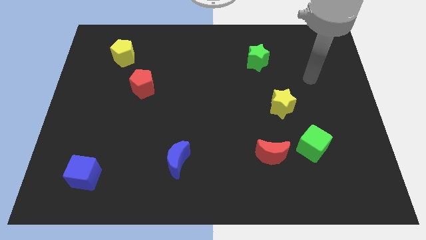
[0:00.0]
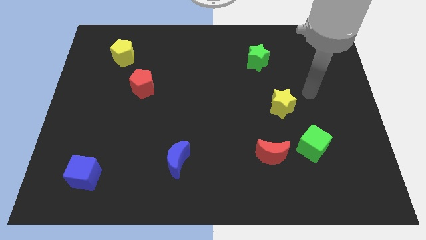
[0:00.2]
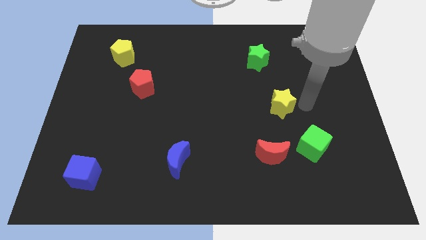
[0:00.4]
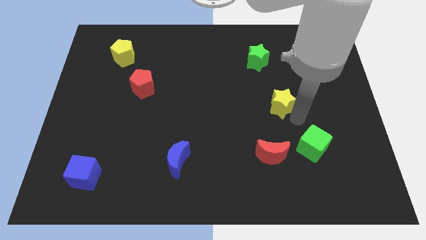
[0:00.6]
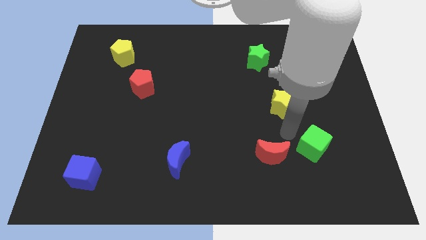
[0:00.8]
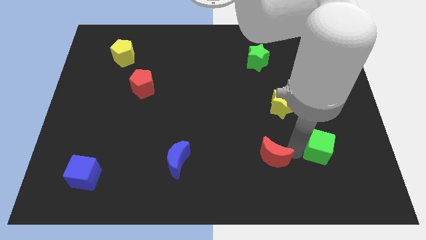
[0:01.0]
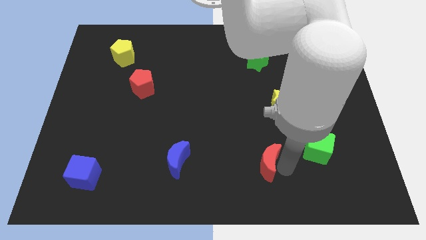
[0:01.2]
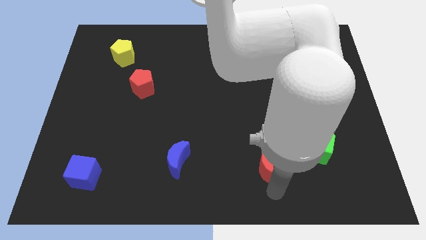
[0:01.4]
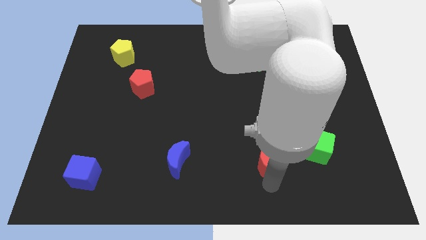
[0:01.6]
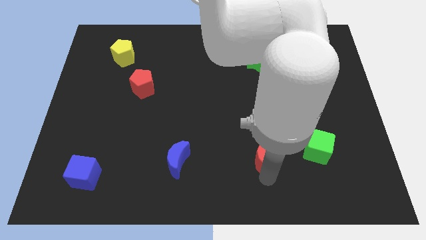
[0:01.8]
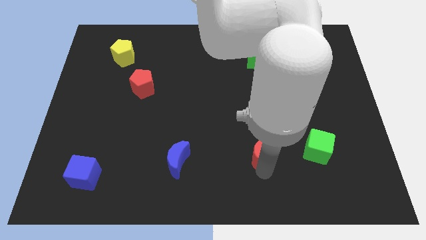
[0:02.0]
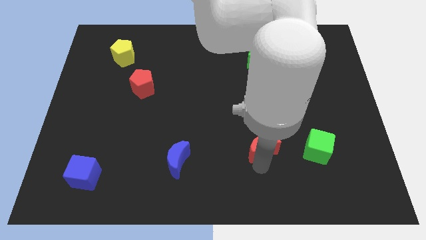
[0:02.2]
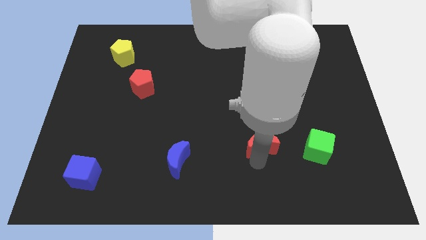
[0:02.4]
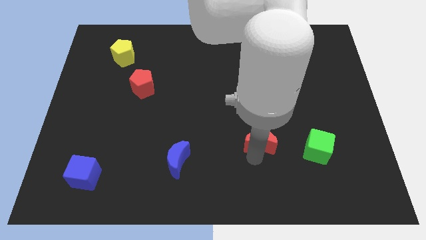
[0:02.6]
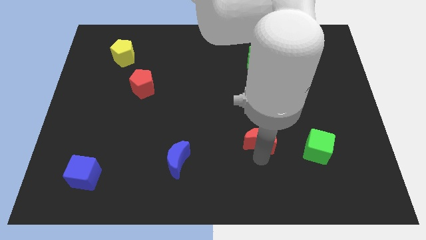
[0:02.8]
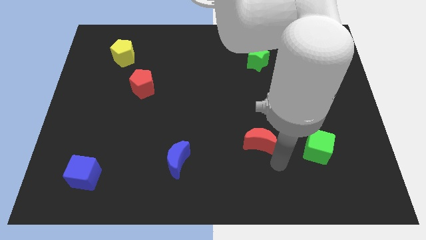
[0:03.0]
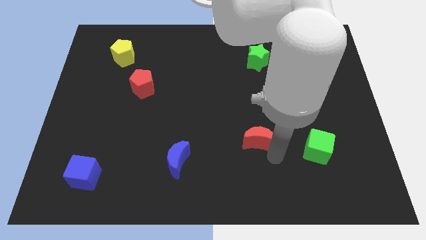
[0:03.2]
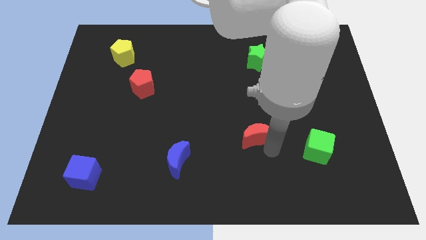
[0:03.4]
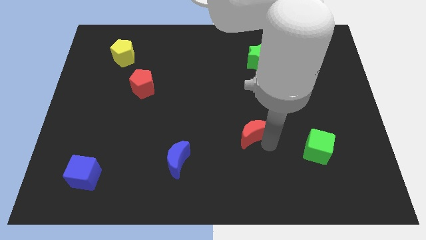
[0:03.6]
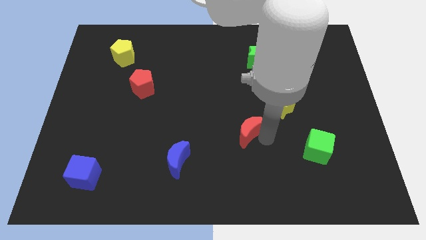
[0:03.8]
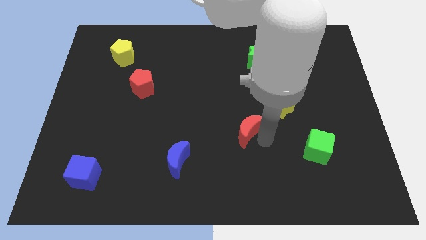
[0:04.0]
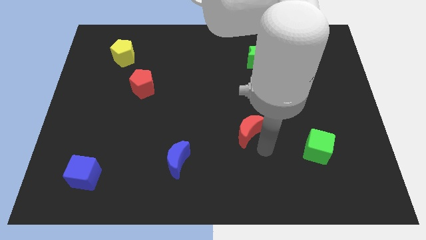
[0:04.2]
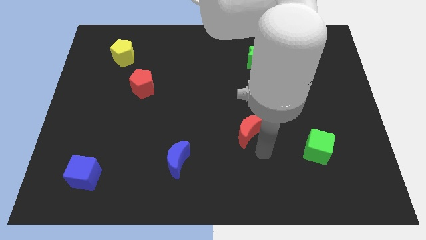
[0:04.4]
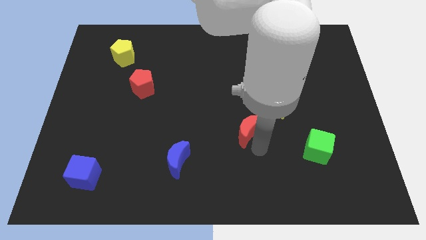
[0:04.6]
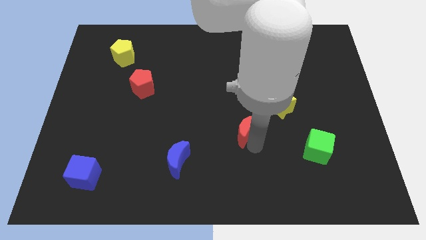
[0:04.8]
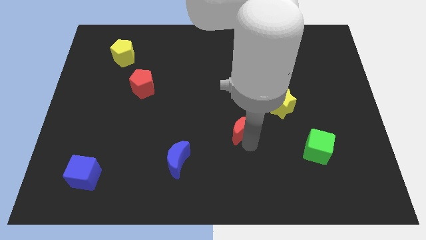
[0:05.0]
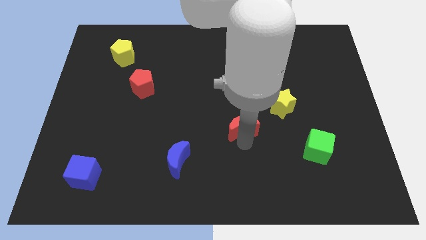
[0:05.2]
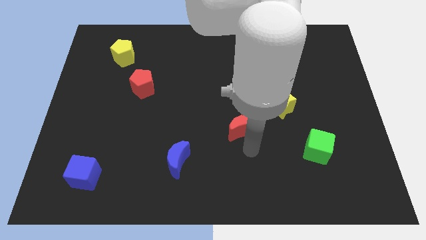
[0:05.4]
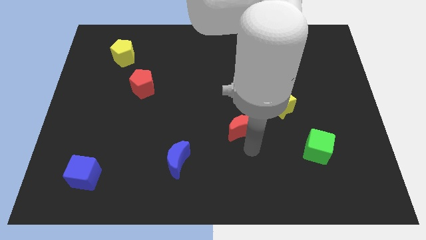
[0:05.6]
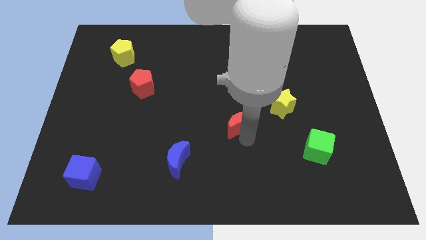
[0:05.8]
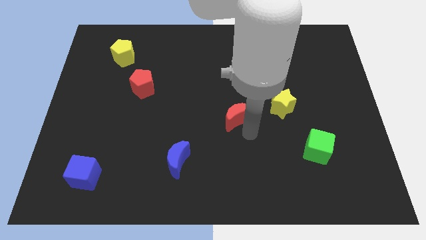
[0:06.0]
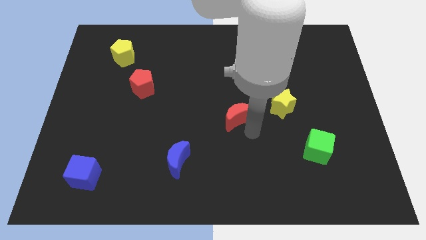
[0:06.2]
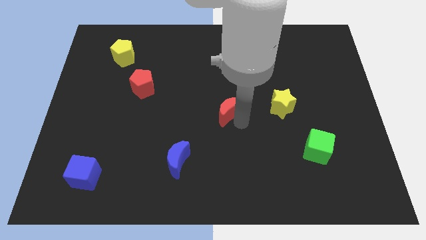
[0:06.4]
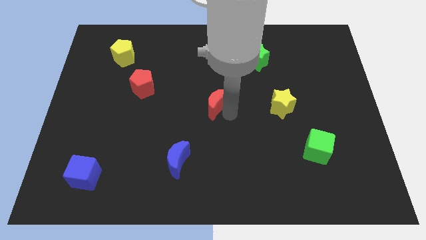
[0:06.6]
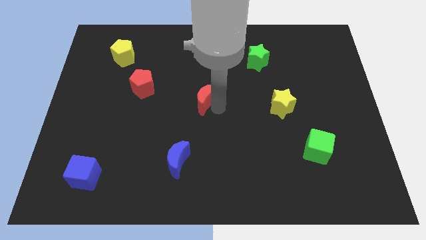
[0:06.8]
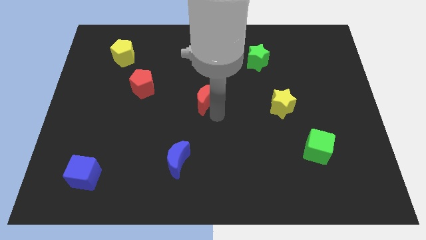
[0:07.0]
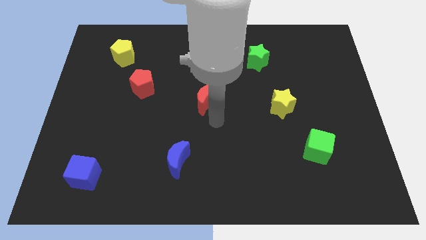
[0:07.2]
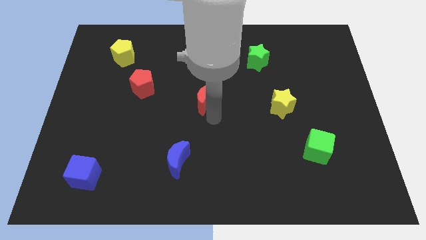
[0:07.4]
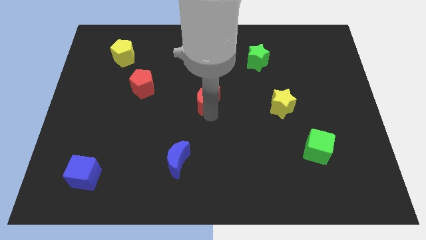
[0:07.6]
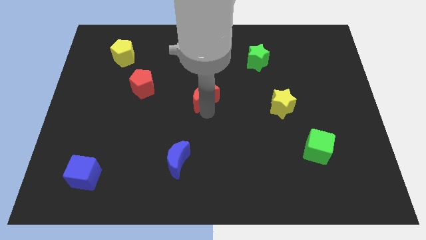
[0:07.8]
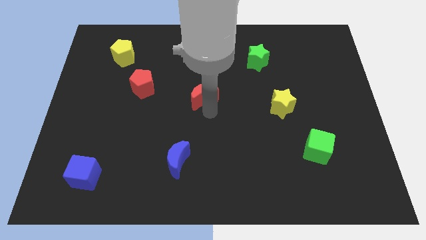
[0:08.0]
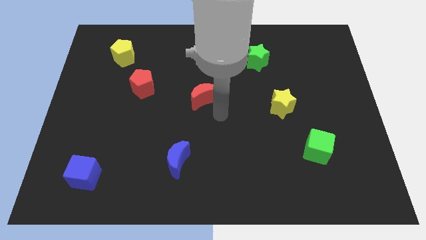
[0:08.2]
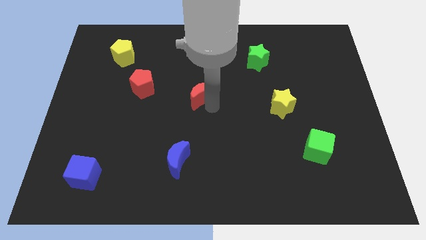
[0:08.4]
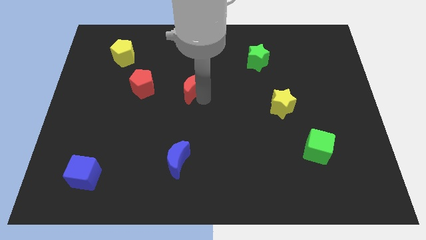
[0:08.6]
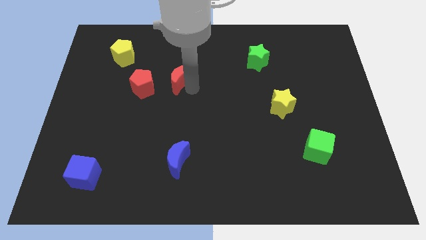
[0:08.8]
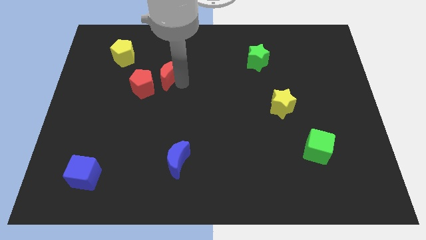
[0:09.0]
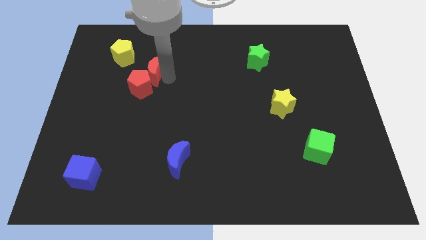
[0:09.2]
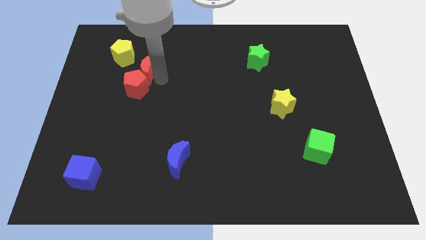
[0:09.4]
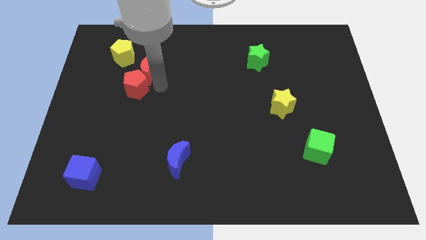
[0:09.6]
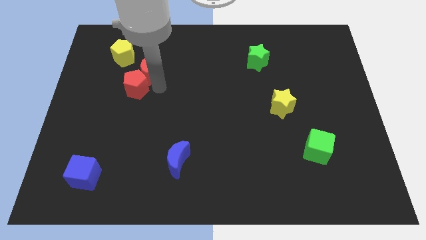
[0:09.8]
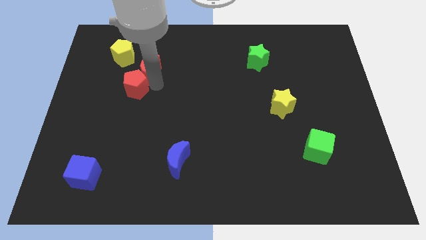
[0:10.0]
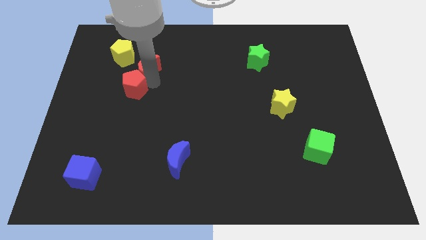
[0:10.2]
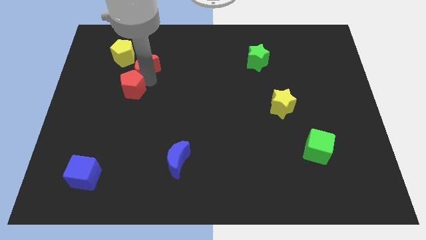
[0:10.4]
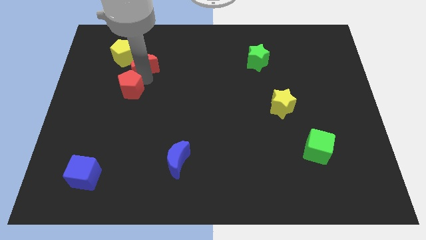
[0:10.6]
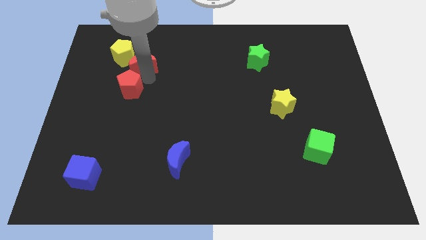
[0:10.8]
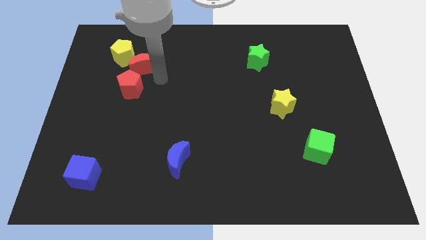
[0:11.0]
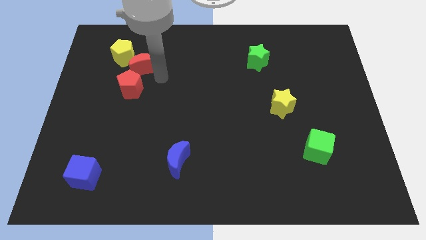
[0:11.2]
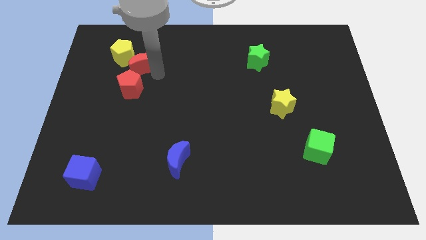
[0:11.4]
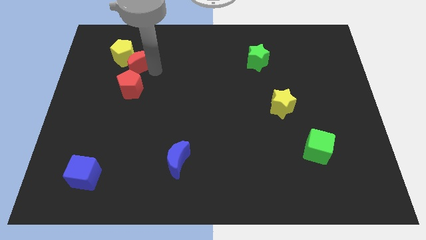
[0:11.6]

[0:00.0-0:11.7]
push the red moon close to the yellow pentagon

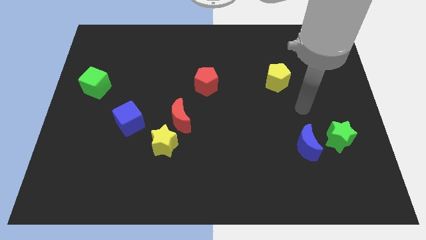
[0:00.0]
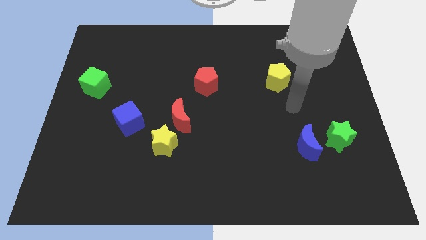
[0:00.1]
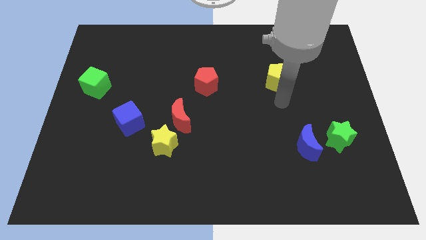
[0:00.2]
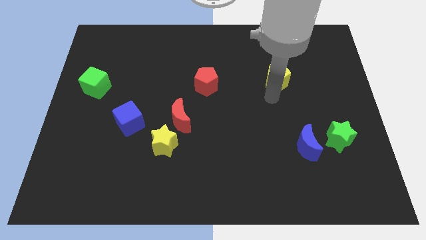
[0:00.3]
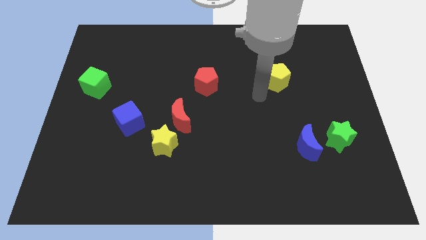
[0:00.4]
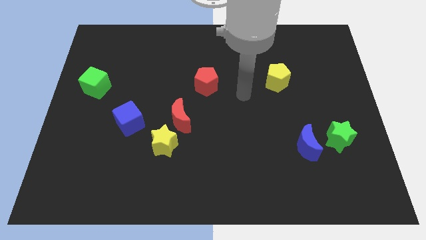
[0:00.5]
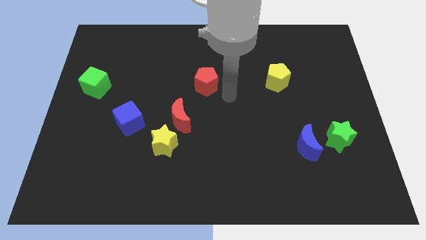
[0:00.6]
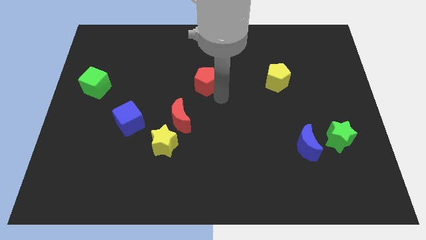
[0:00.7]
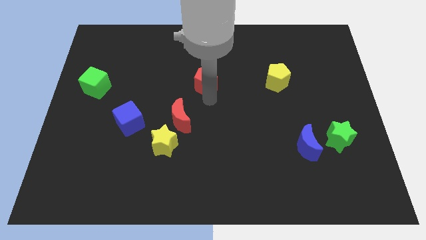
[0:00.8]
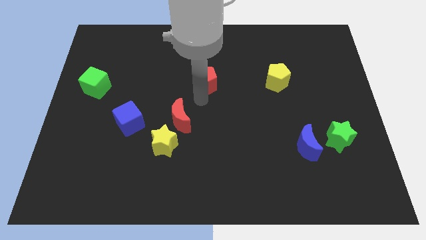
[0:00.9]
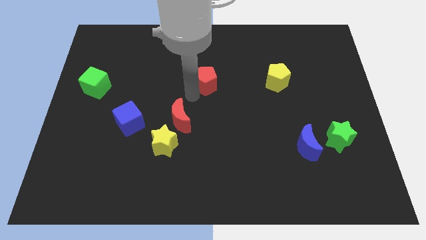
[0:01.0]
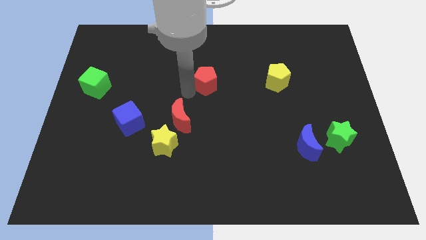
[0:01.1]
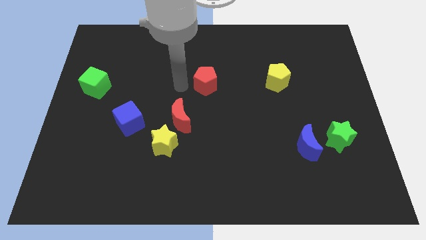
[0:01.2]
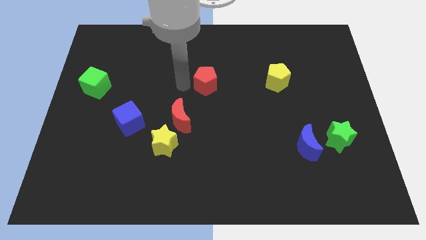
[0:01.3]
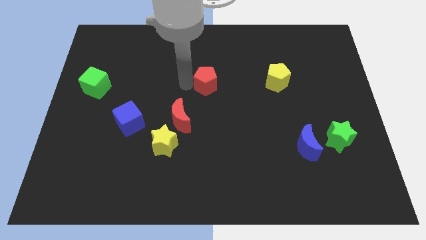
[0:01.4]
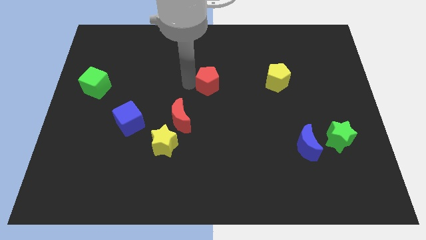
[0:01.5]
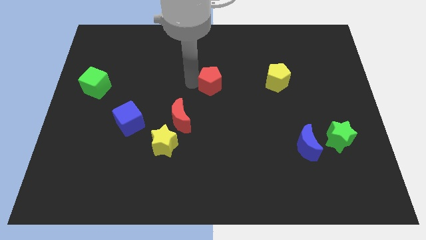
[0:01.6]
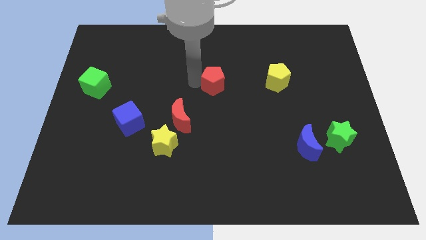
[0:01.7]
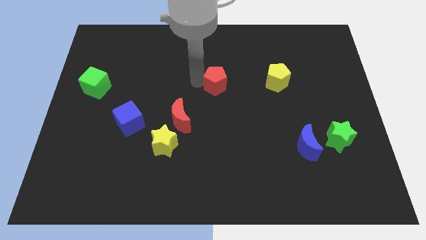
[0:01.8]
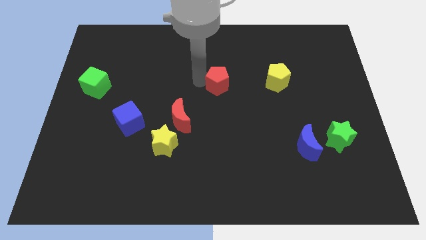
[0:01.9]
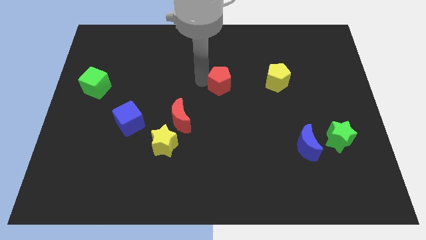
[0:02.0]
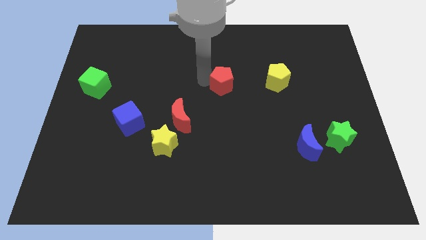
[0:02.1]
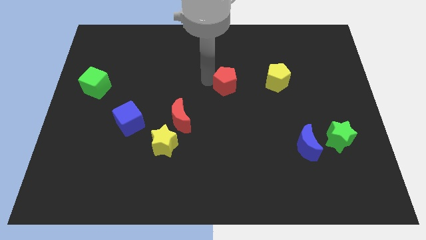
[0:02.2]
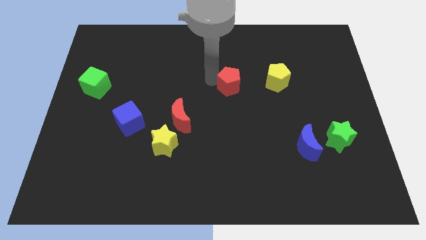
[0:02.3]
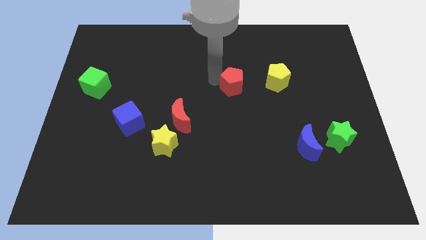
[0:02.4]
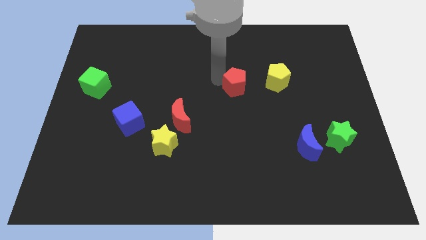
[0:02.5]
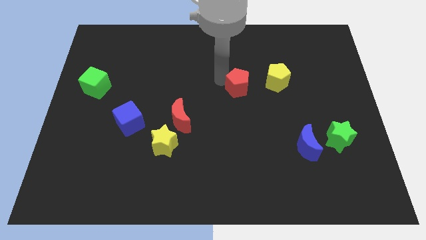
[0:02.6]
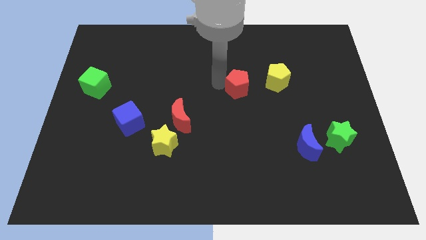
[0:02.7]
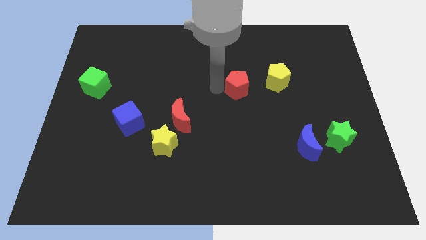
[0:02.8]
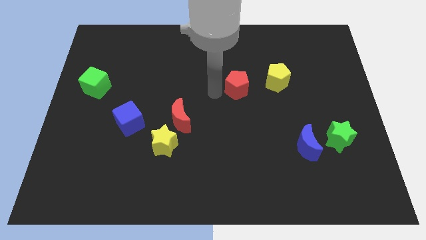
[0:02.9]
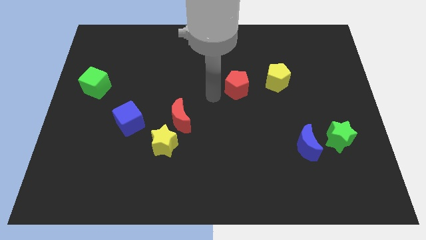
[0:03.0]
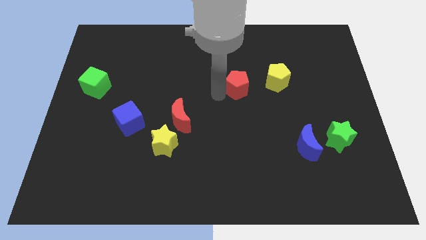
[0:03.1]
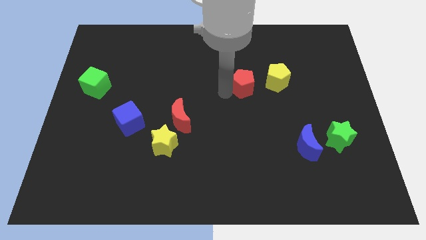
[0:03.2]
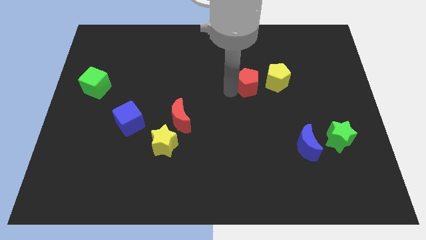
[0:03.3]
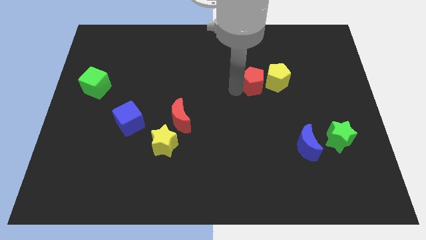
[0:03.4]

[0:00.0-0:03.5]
move the red pentagon towards the yellow pentagon
